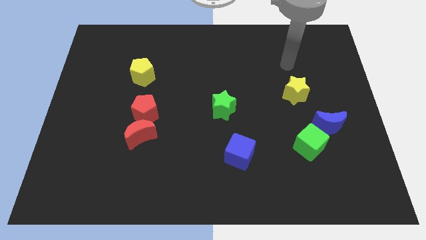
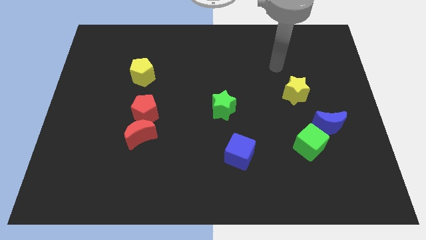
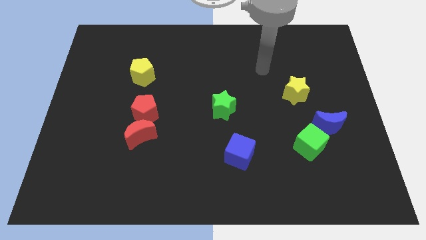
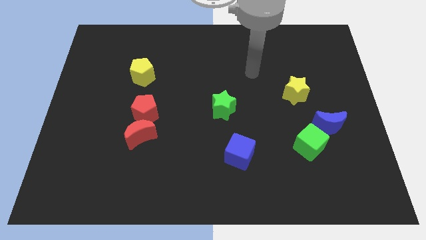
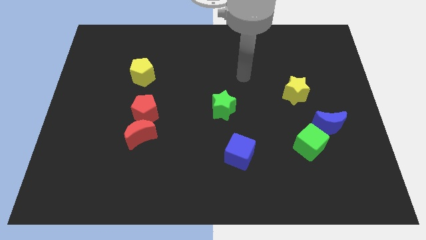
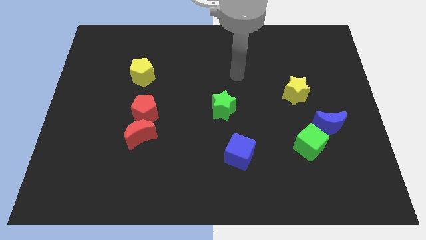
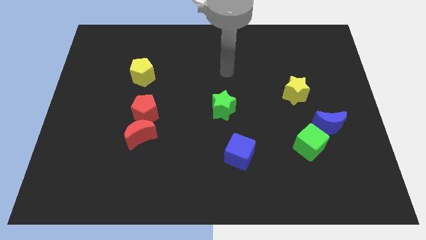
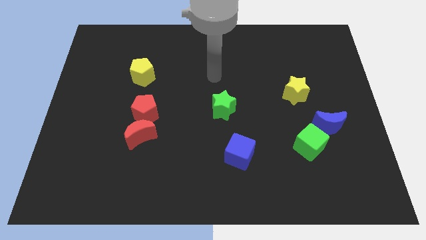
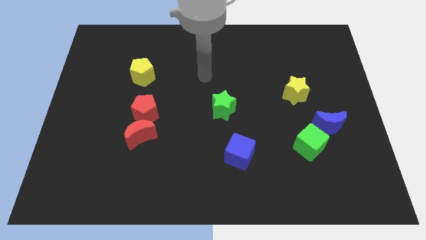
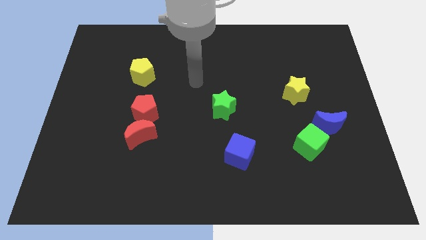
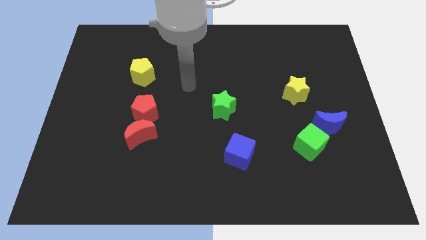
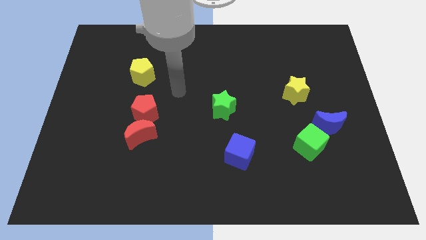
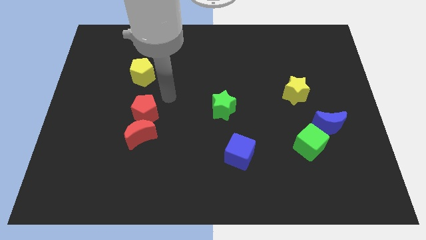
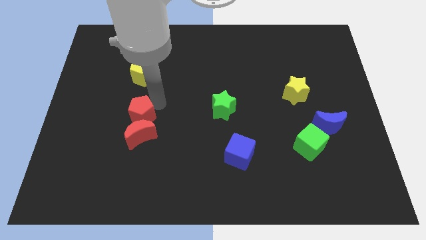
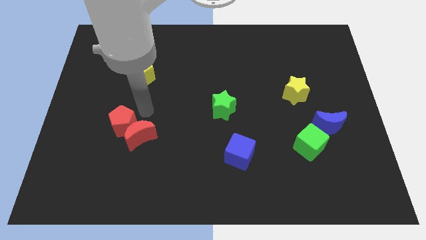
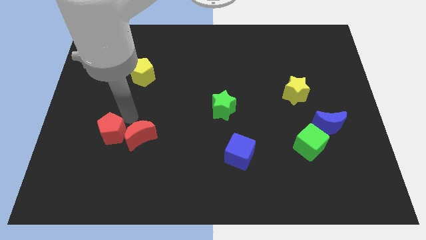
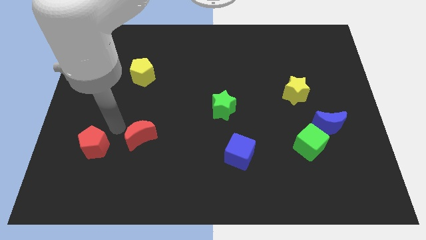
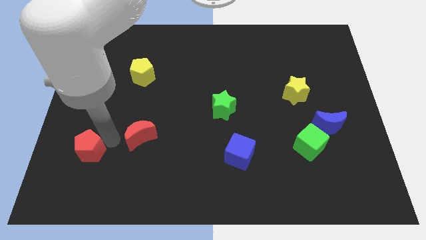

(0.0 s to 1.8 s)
separate the red moon from the red pentagon

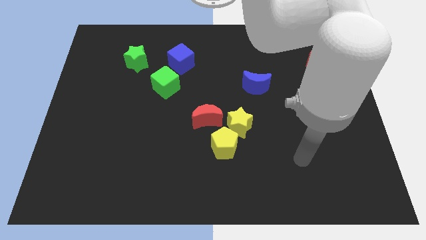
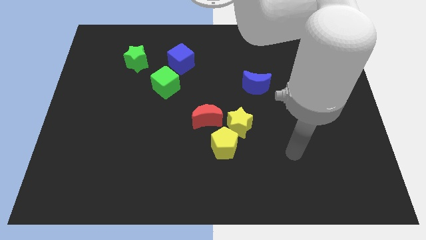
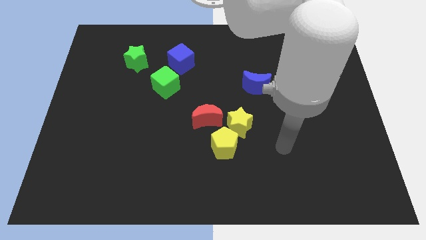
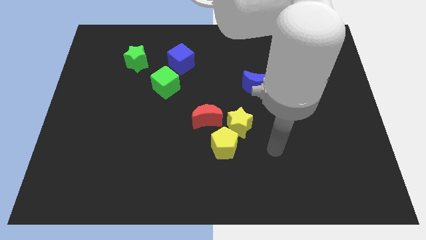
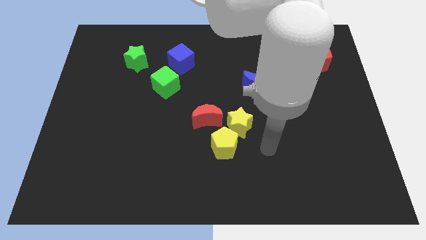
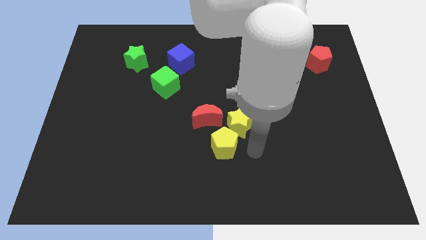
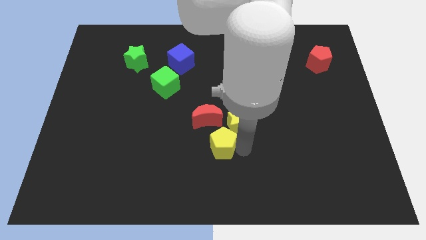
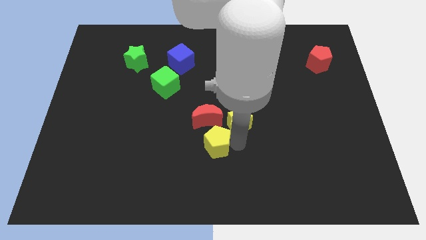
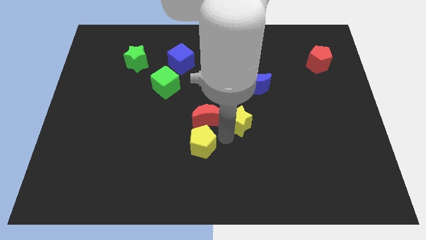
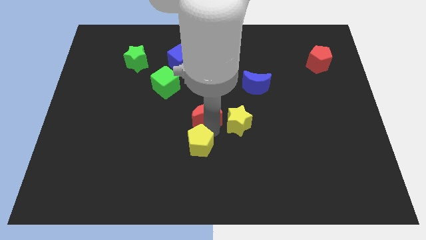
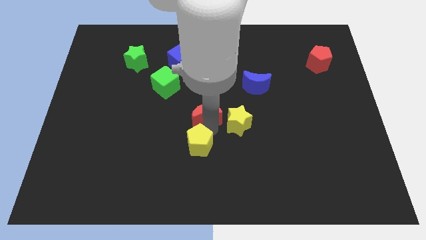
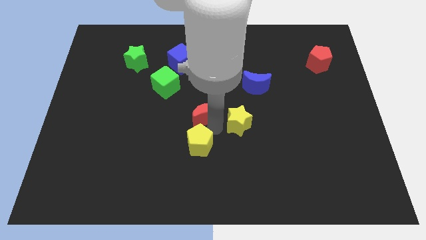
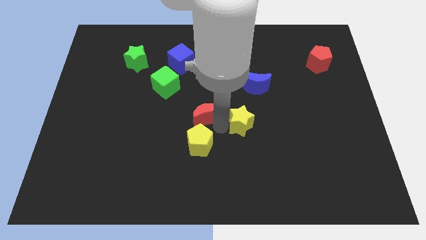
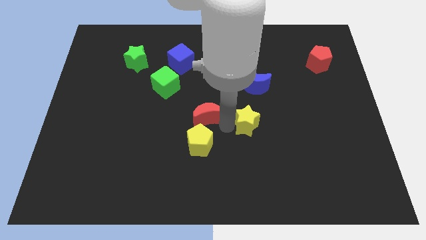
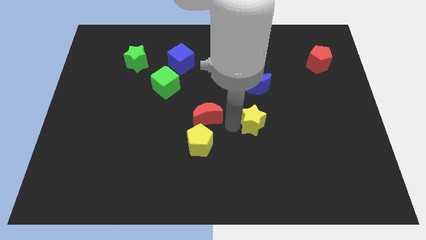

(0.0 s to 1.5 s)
pull the yellow star apart from the yellow pentagon and red moon

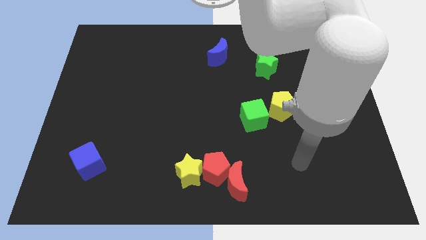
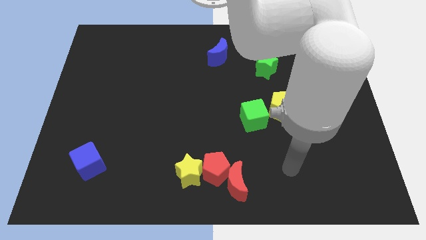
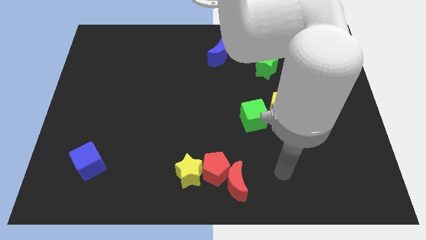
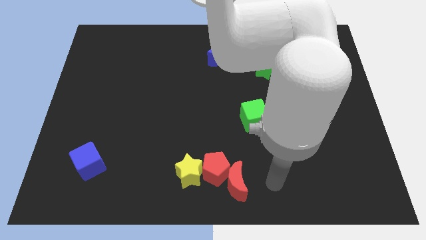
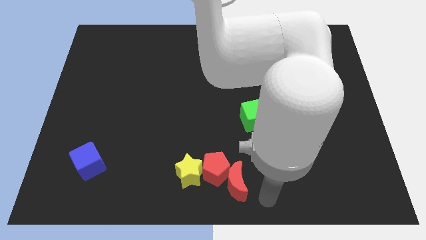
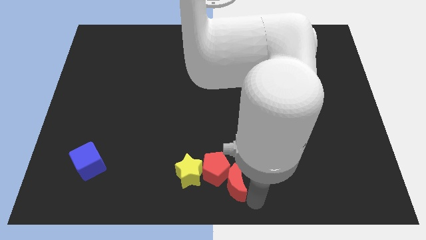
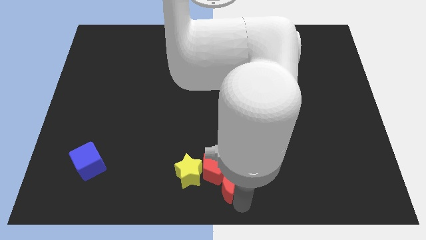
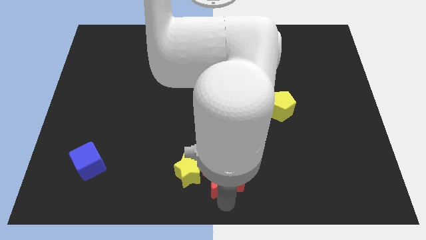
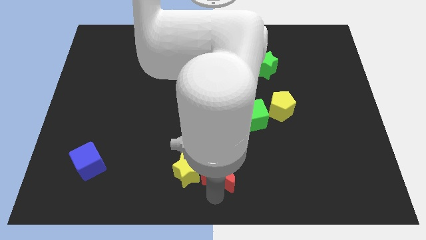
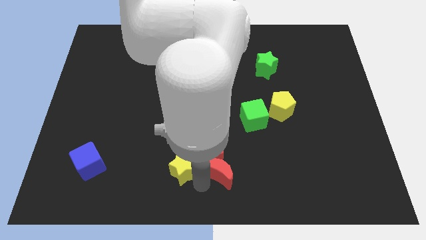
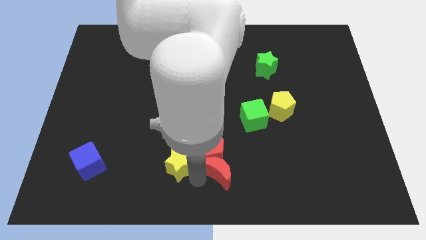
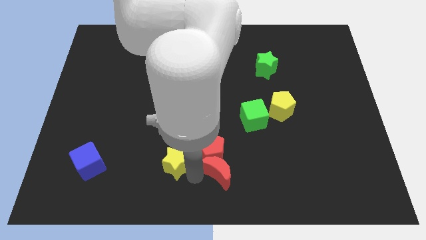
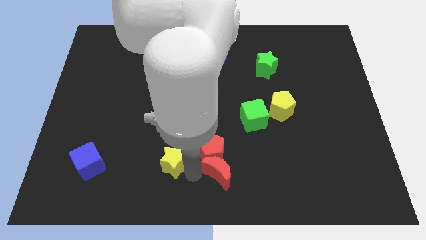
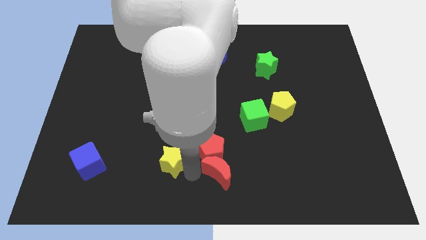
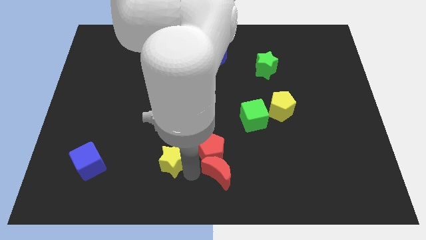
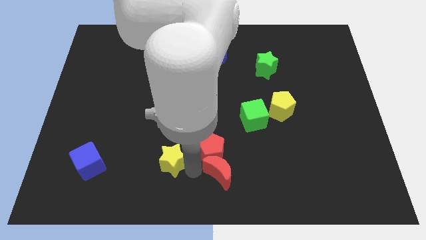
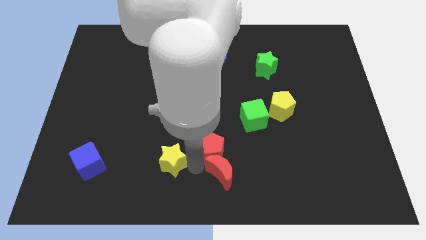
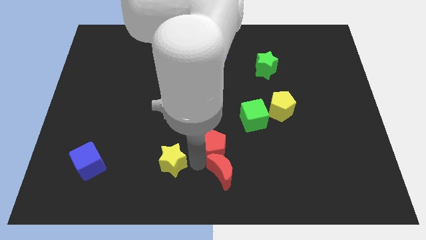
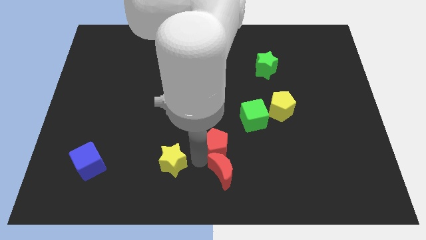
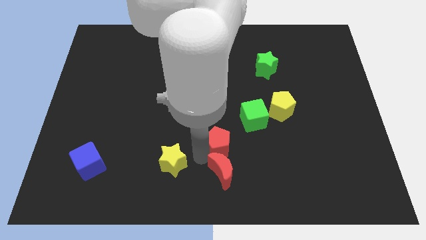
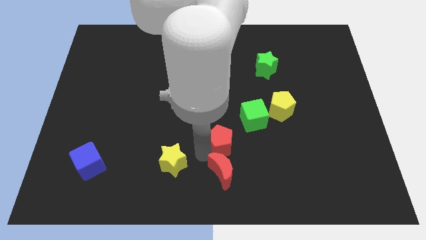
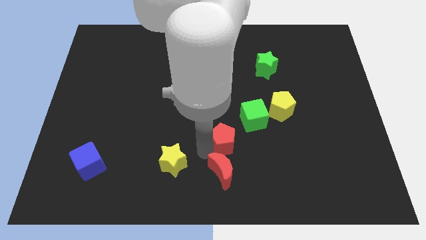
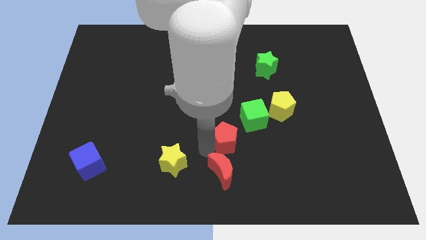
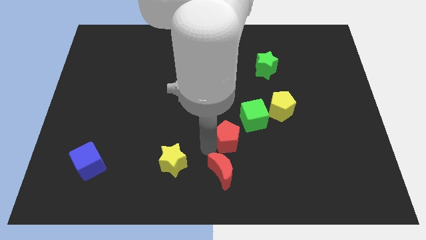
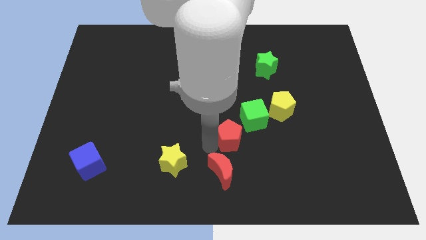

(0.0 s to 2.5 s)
move the red pentagon away from the red moon and yellow star

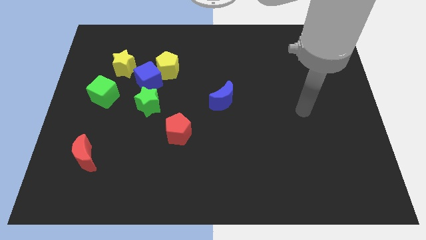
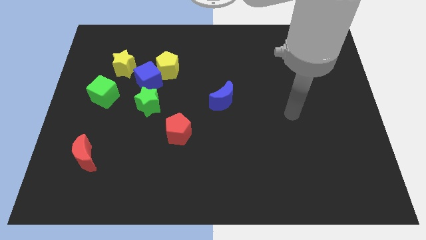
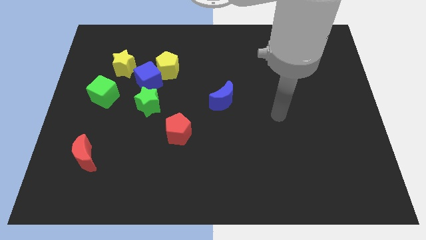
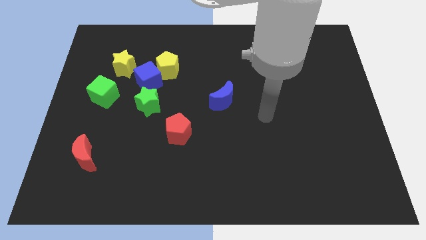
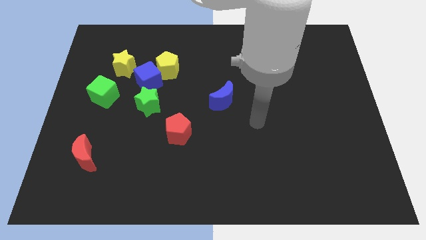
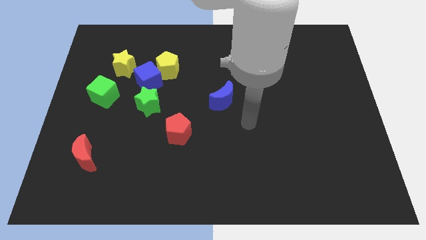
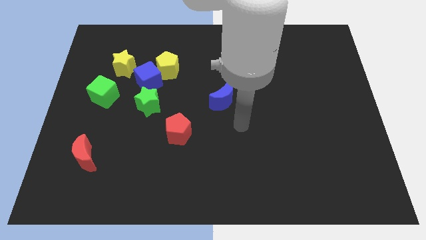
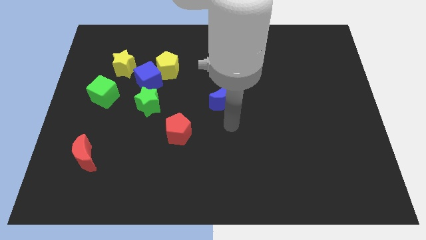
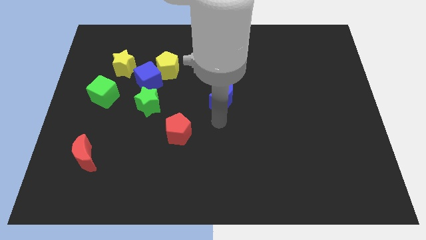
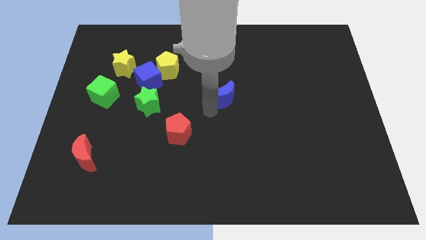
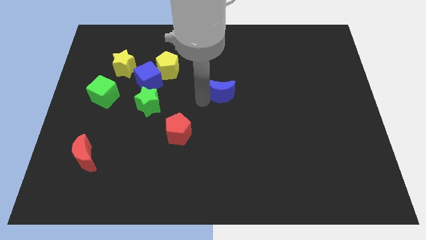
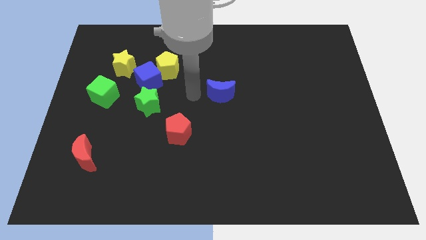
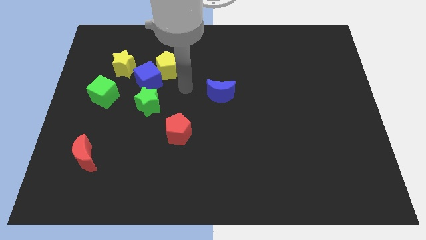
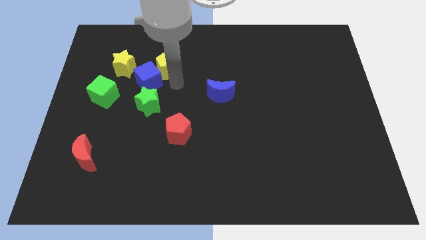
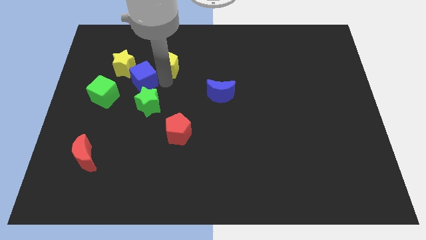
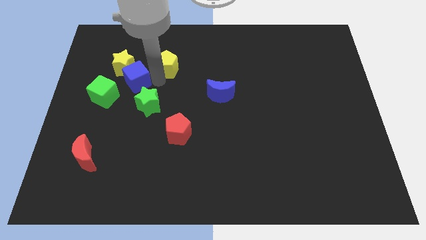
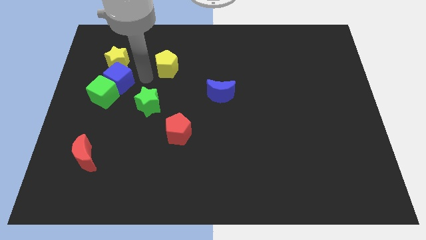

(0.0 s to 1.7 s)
separate the yellow pentagon from the blue cube

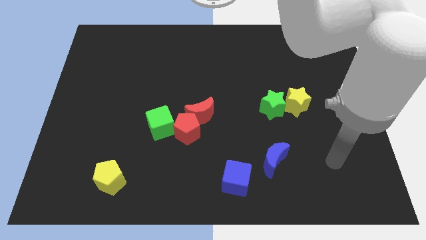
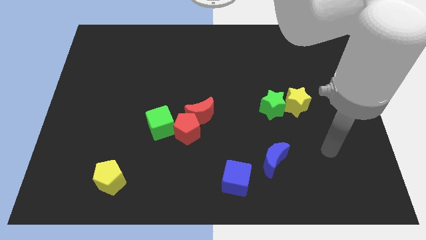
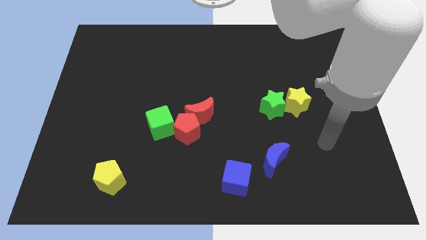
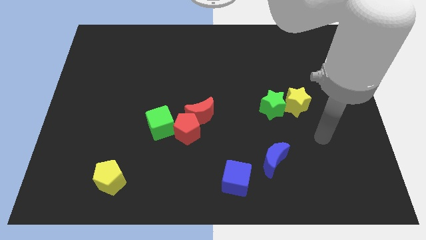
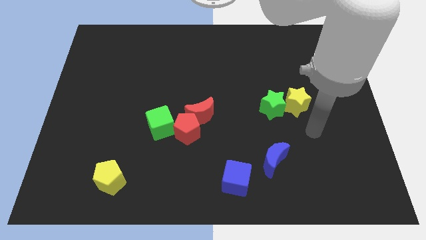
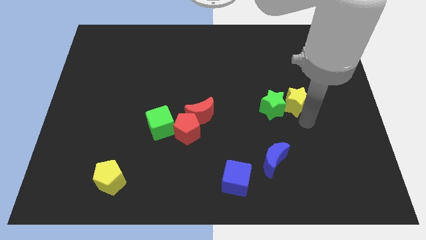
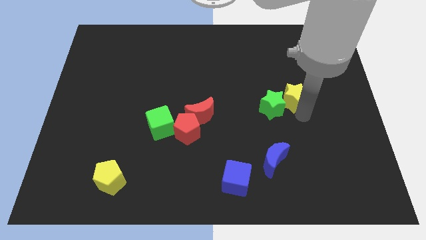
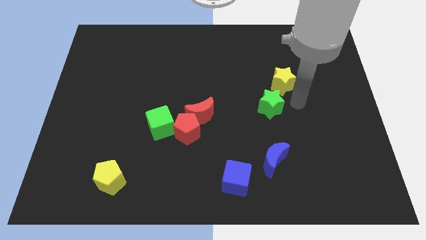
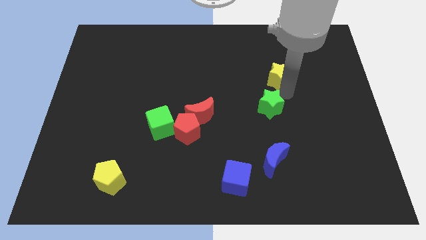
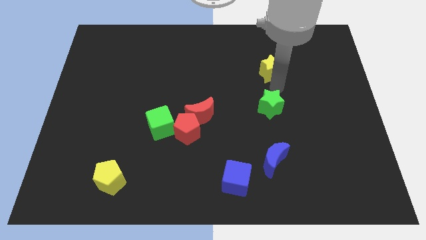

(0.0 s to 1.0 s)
move the green star away from the yellow star

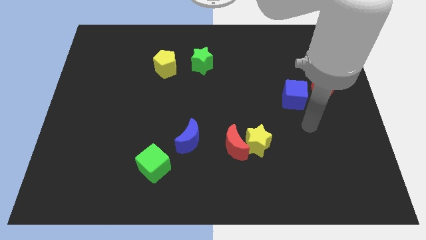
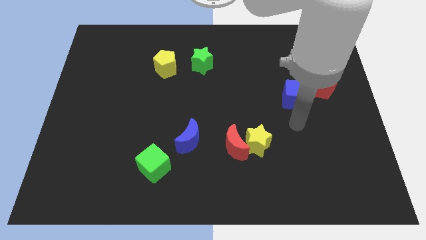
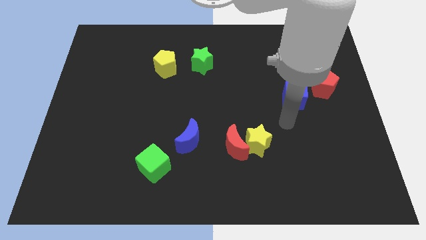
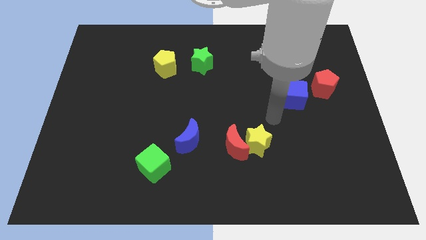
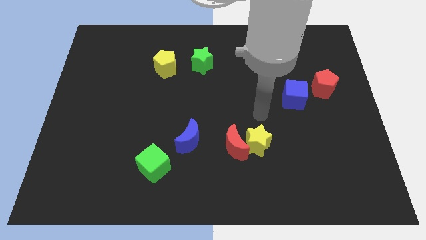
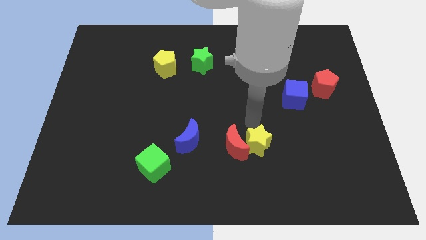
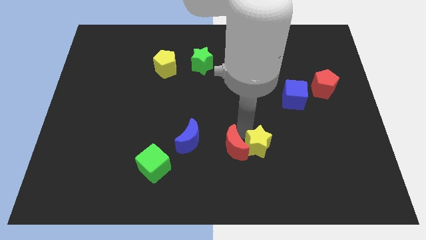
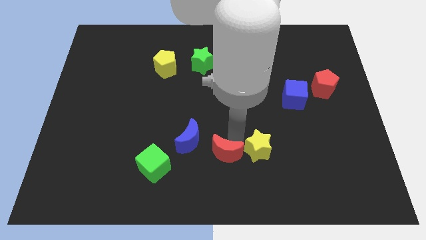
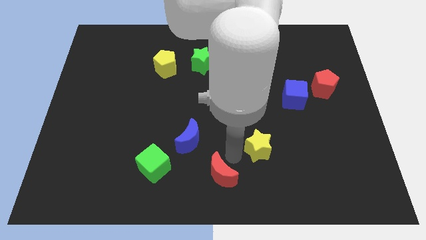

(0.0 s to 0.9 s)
move the yellow star away from the red moon
